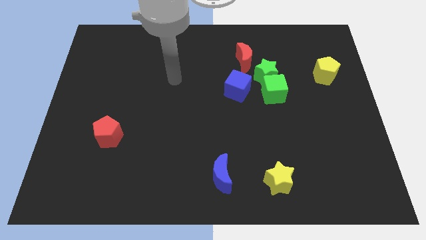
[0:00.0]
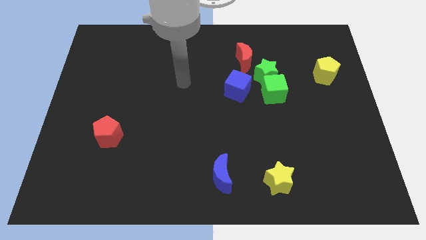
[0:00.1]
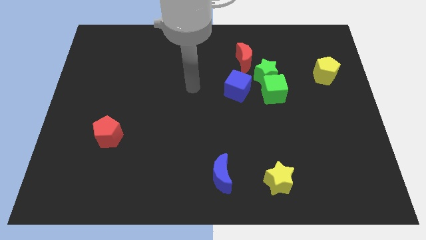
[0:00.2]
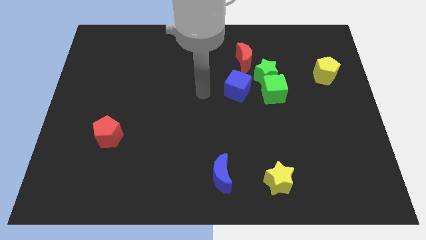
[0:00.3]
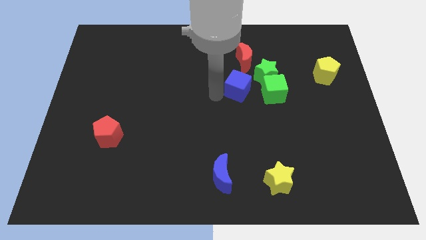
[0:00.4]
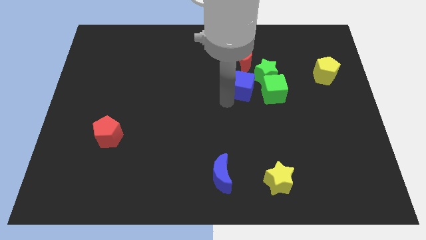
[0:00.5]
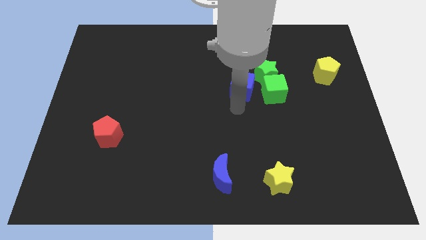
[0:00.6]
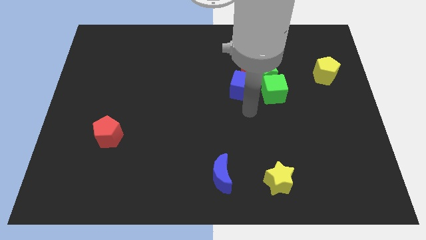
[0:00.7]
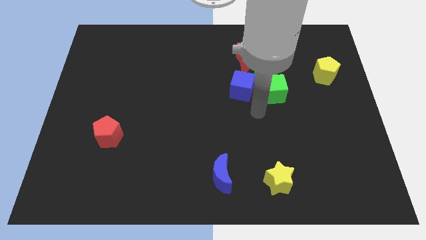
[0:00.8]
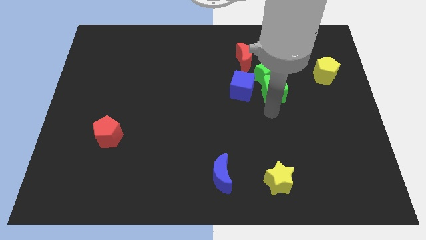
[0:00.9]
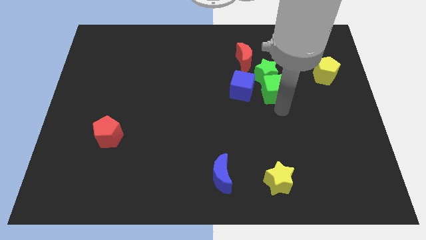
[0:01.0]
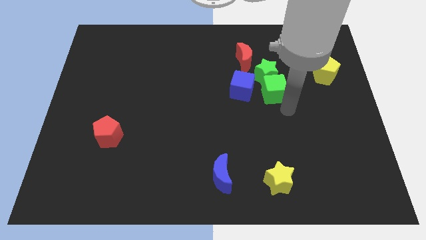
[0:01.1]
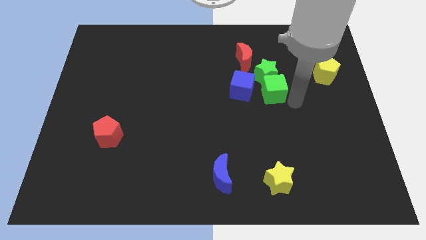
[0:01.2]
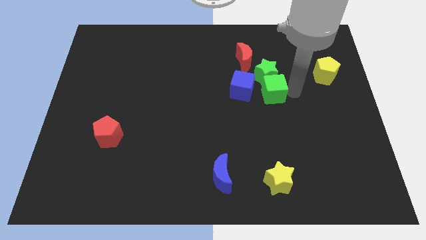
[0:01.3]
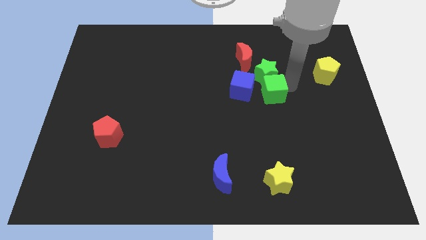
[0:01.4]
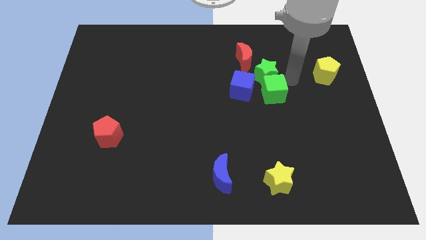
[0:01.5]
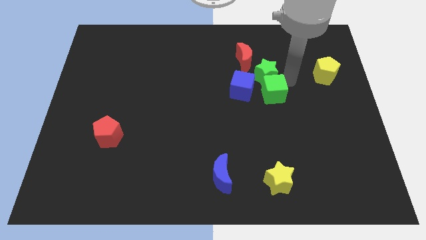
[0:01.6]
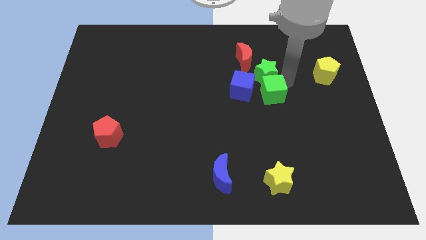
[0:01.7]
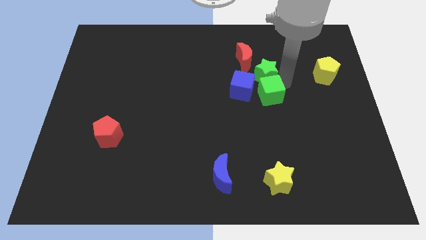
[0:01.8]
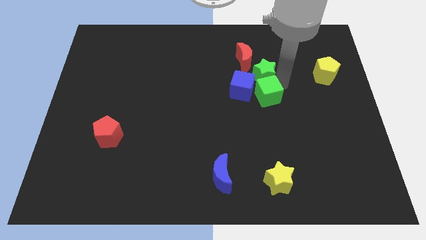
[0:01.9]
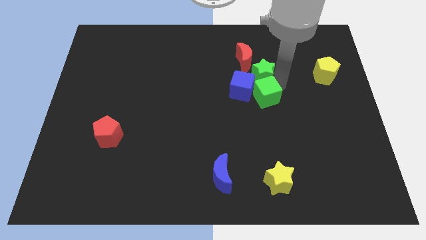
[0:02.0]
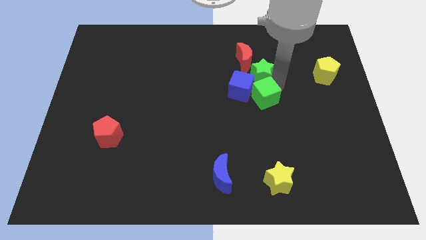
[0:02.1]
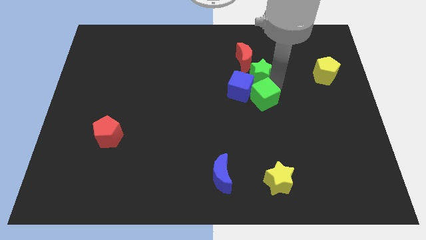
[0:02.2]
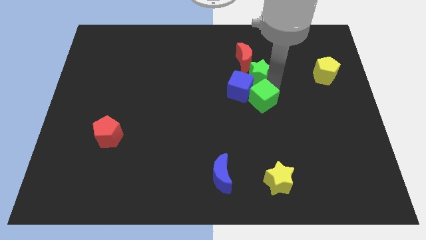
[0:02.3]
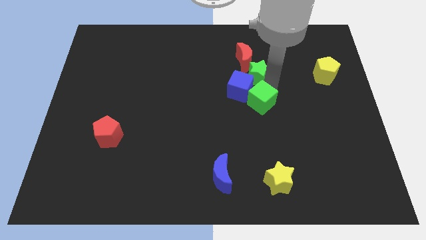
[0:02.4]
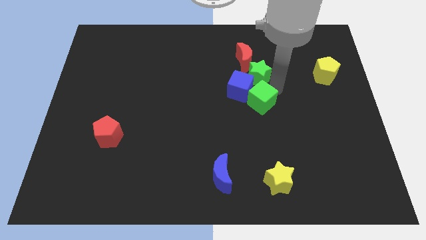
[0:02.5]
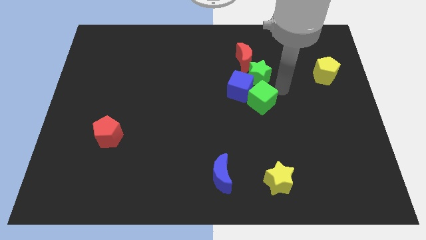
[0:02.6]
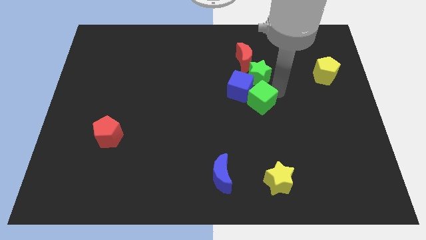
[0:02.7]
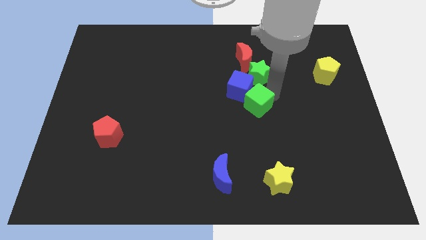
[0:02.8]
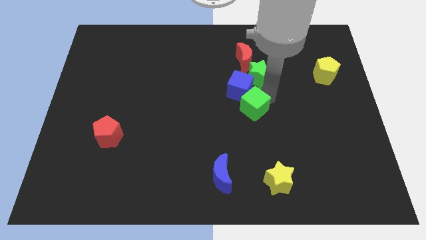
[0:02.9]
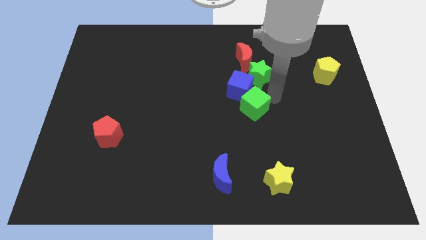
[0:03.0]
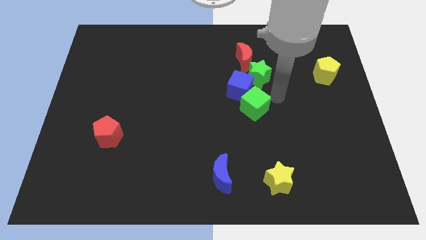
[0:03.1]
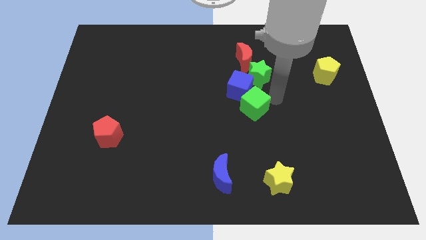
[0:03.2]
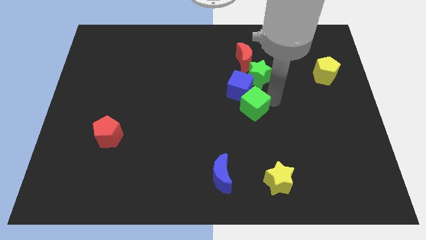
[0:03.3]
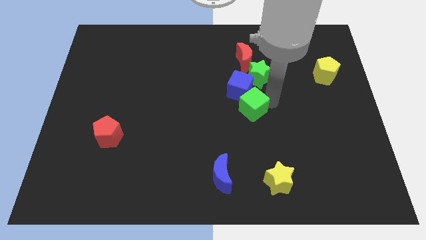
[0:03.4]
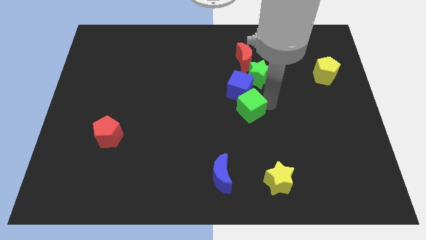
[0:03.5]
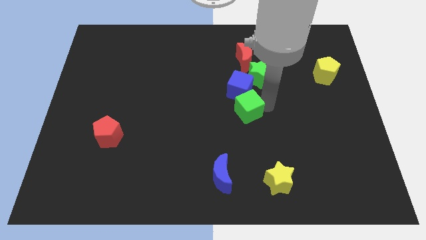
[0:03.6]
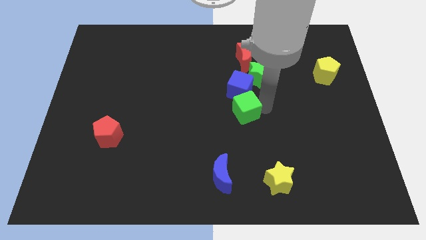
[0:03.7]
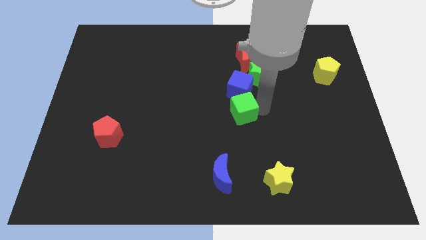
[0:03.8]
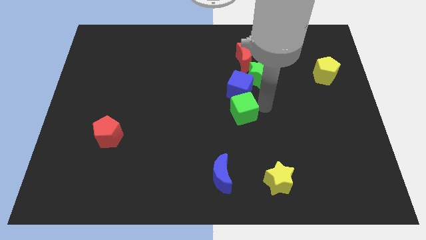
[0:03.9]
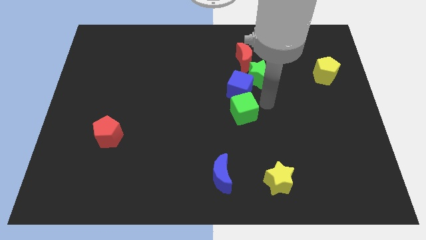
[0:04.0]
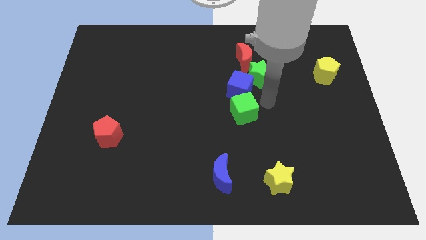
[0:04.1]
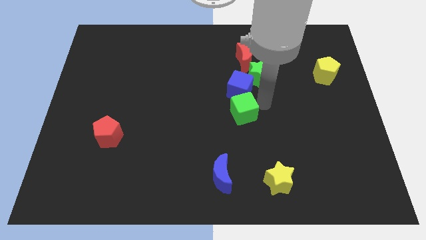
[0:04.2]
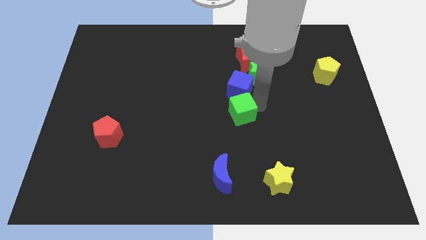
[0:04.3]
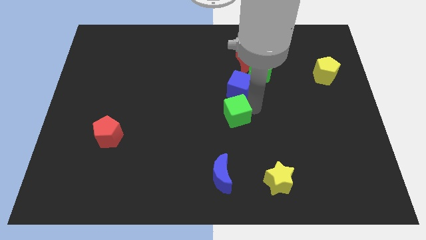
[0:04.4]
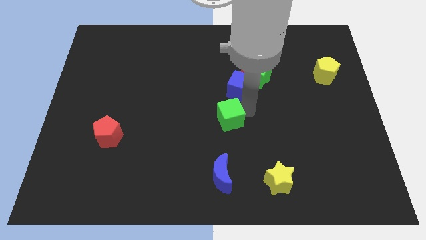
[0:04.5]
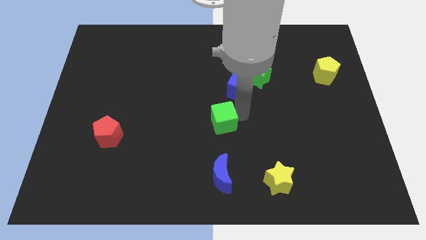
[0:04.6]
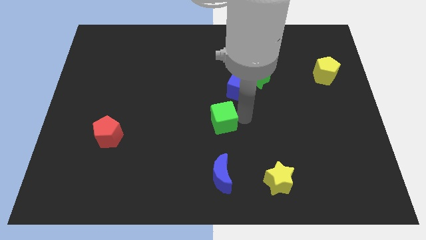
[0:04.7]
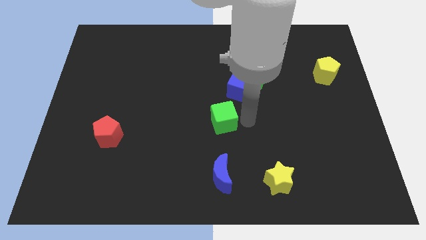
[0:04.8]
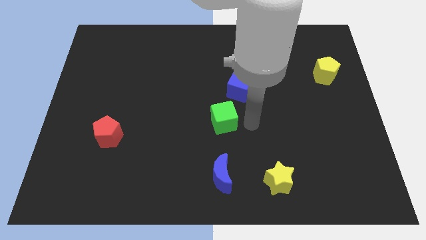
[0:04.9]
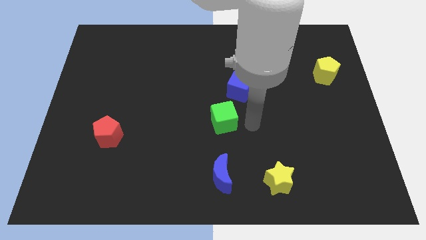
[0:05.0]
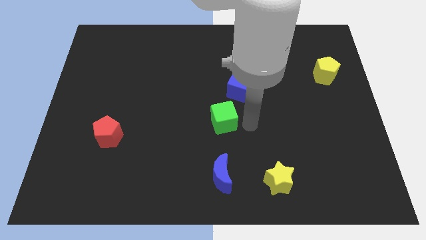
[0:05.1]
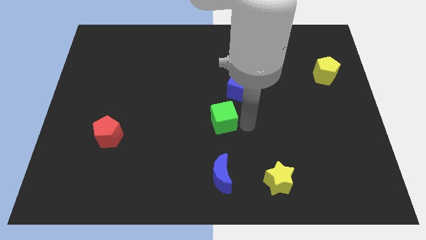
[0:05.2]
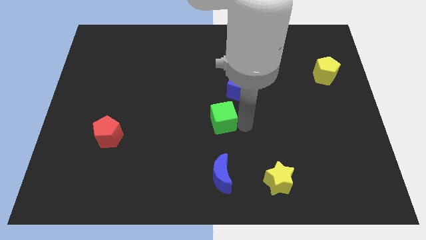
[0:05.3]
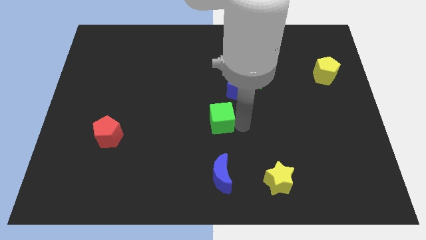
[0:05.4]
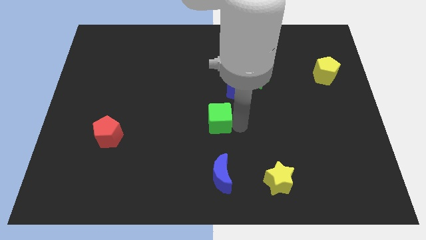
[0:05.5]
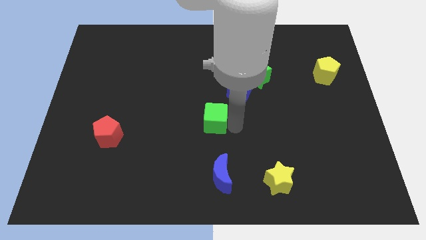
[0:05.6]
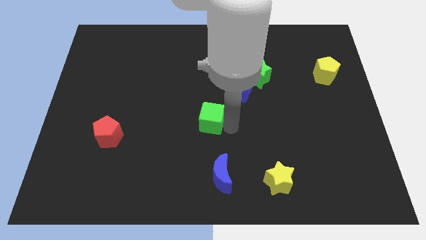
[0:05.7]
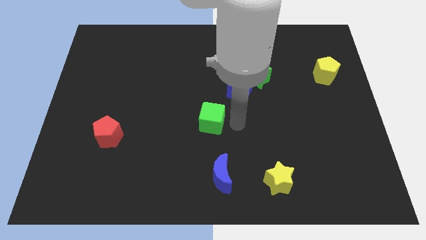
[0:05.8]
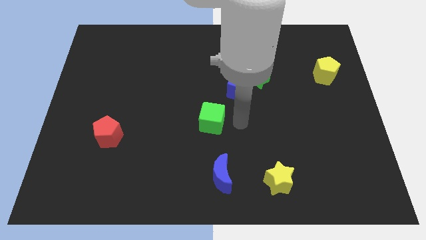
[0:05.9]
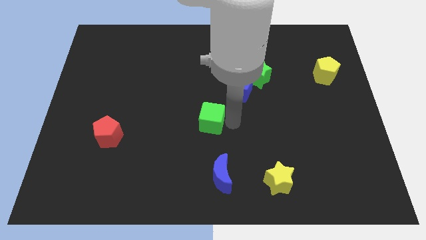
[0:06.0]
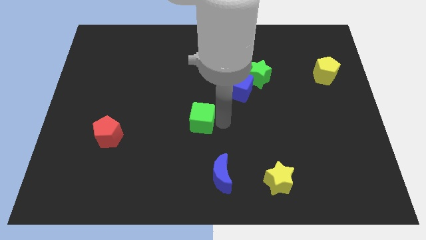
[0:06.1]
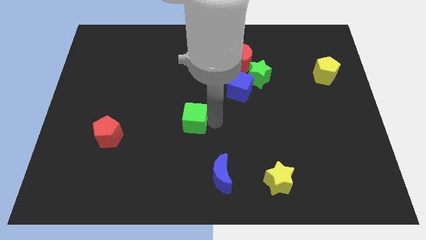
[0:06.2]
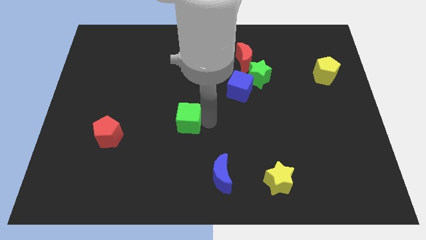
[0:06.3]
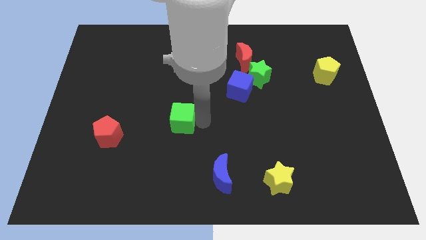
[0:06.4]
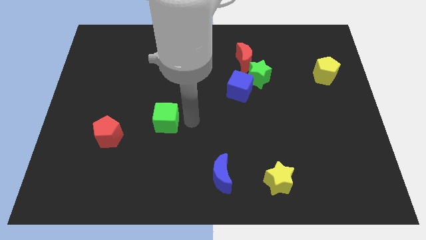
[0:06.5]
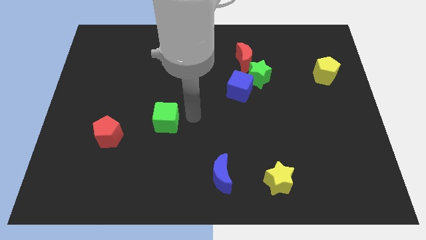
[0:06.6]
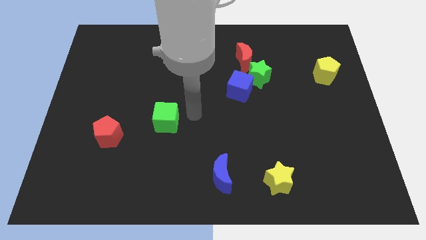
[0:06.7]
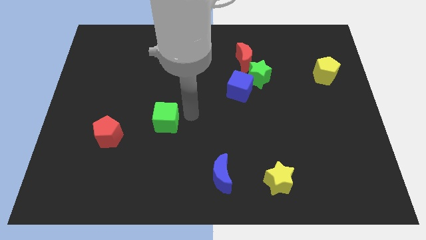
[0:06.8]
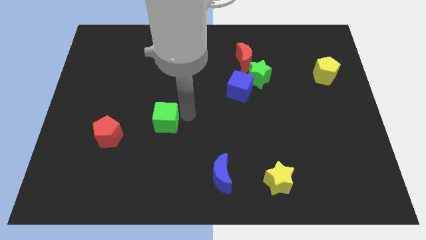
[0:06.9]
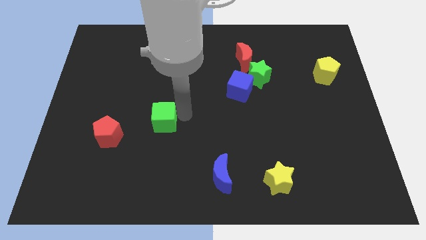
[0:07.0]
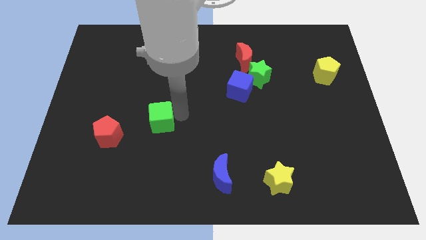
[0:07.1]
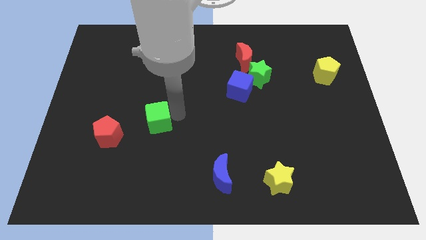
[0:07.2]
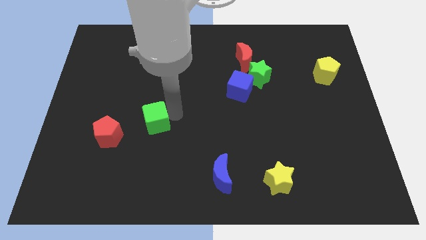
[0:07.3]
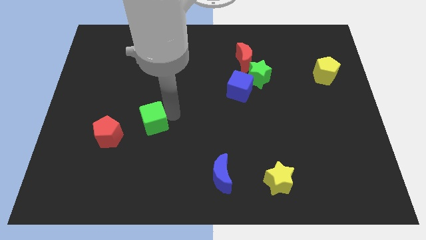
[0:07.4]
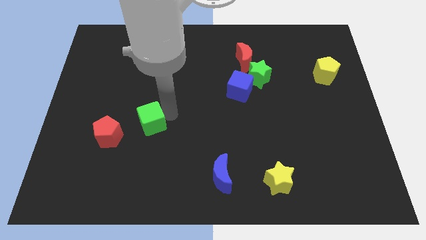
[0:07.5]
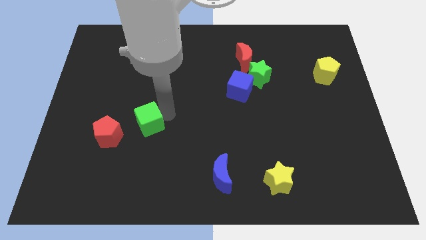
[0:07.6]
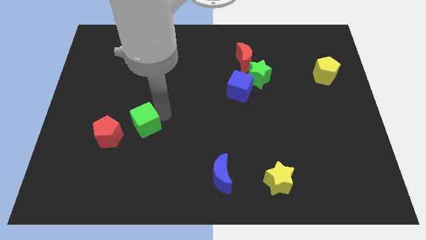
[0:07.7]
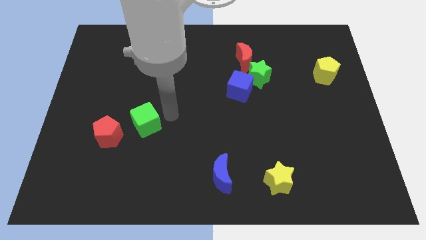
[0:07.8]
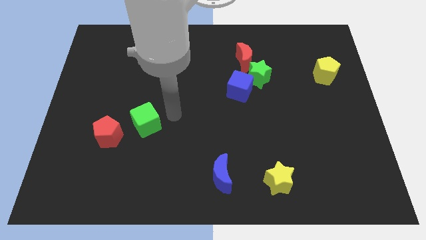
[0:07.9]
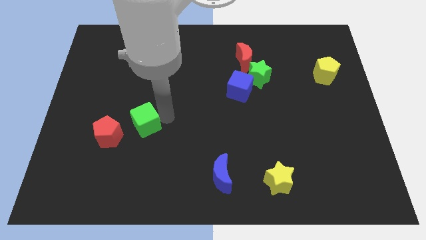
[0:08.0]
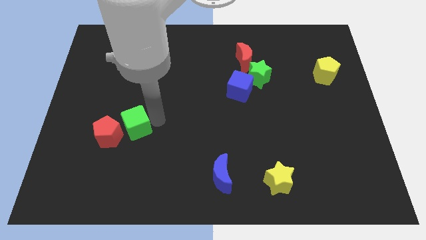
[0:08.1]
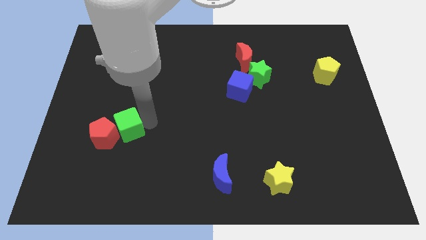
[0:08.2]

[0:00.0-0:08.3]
put the green cube towards the red pentagon
